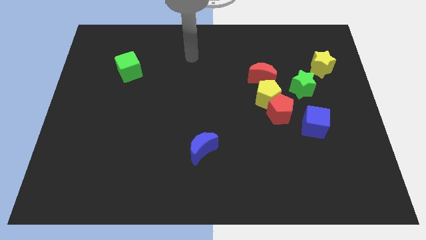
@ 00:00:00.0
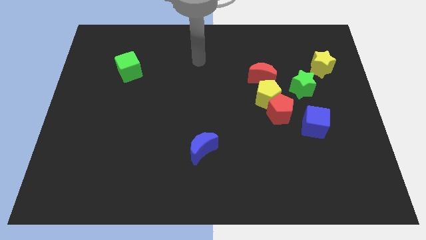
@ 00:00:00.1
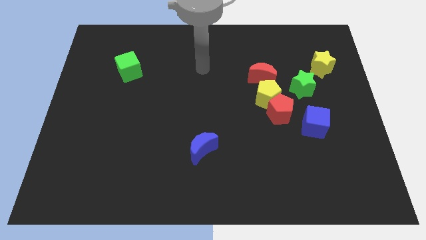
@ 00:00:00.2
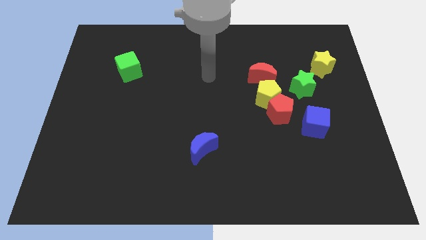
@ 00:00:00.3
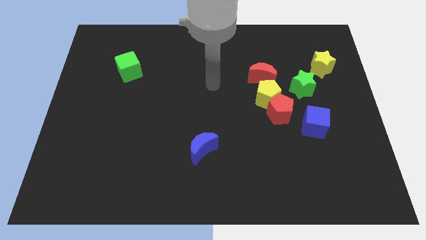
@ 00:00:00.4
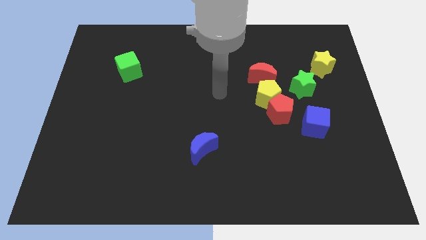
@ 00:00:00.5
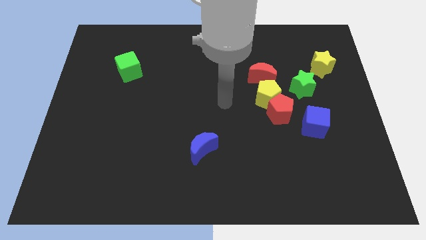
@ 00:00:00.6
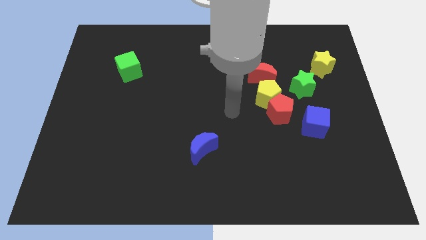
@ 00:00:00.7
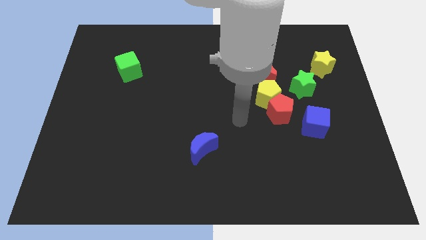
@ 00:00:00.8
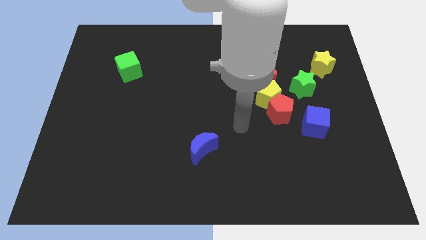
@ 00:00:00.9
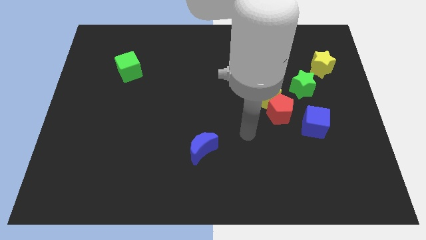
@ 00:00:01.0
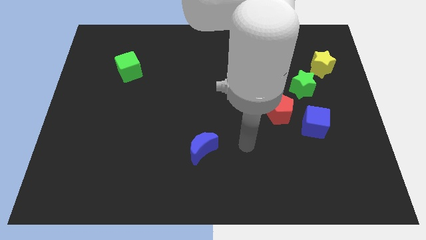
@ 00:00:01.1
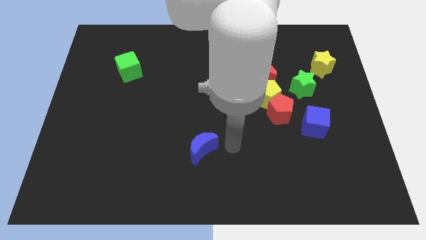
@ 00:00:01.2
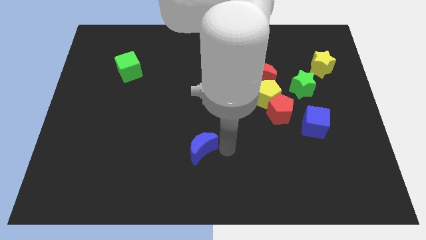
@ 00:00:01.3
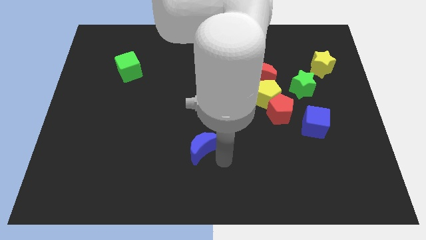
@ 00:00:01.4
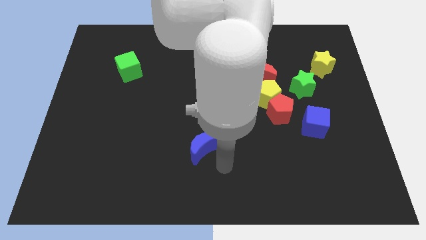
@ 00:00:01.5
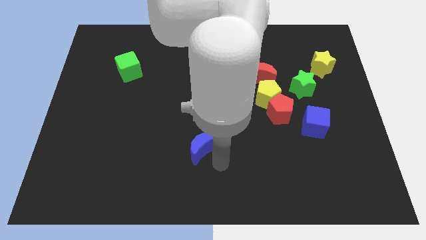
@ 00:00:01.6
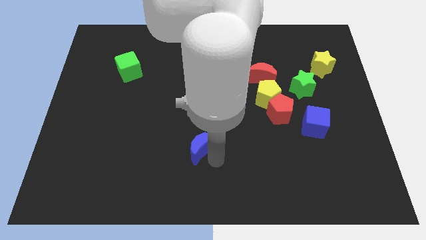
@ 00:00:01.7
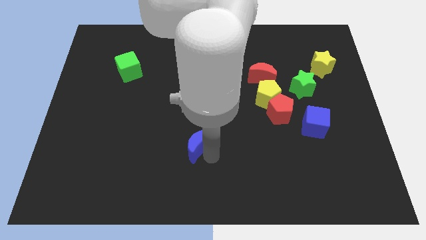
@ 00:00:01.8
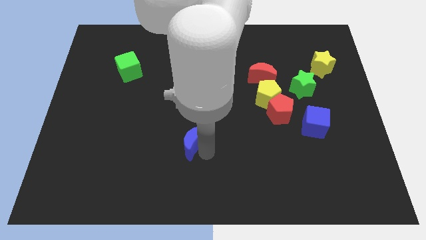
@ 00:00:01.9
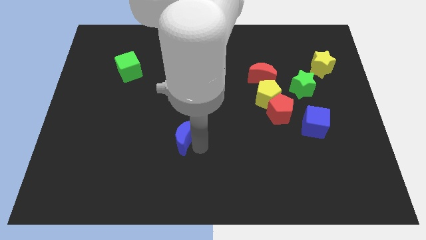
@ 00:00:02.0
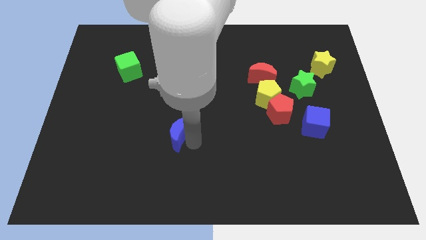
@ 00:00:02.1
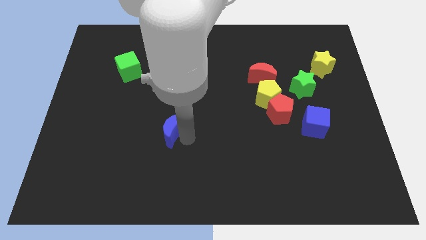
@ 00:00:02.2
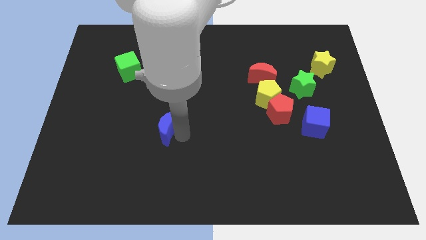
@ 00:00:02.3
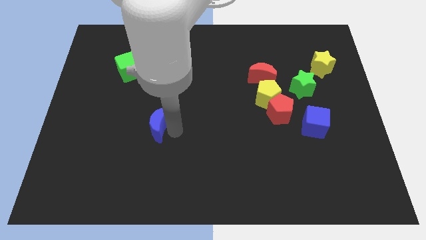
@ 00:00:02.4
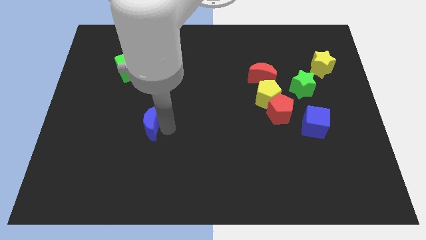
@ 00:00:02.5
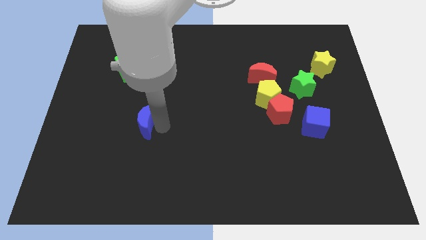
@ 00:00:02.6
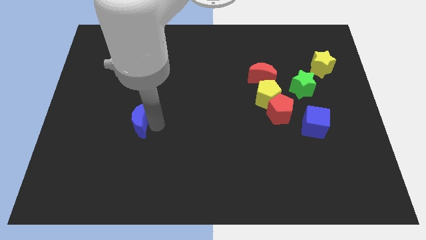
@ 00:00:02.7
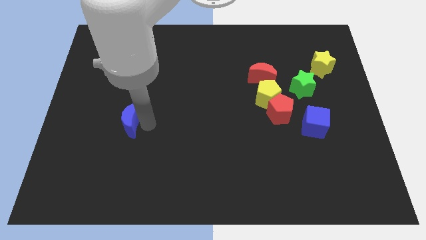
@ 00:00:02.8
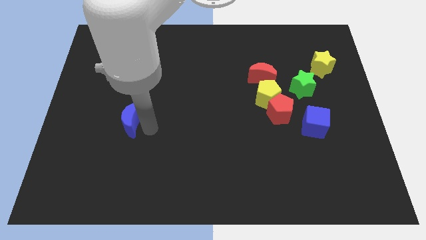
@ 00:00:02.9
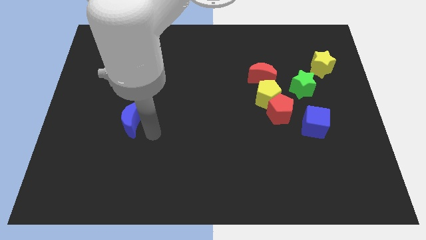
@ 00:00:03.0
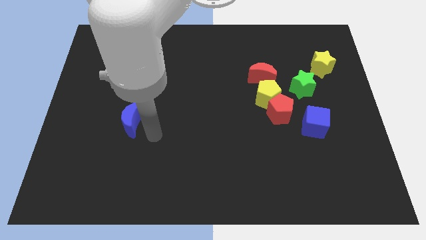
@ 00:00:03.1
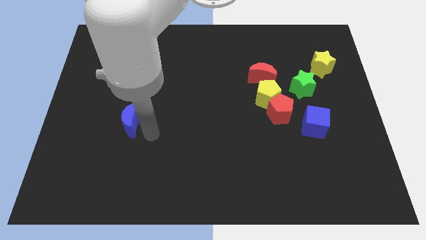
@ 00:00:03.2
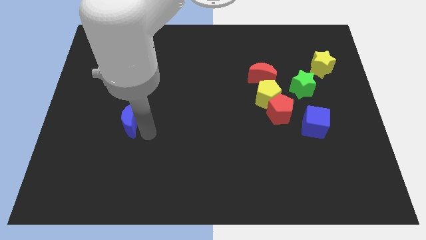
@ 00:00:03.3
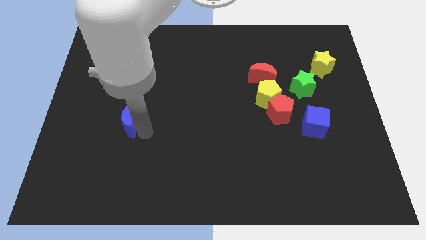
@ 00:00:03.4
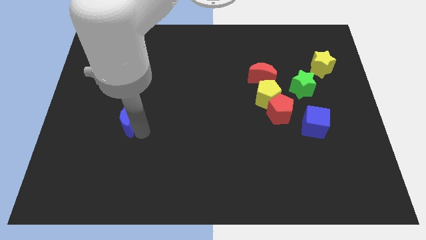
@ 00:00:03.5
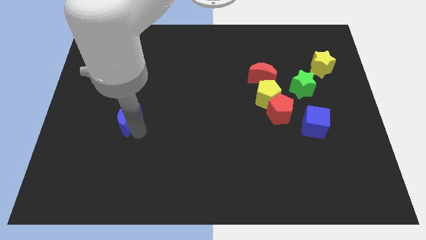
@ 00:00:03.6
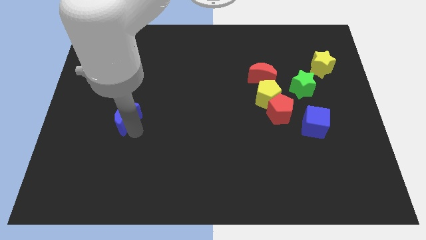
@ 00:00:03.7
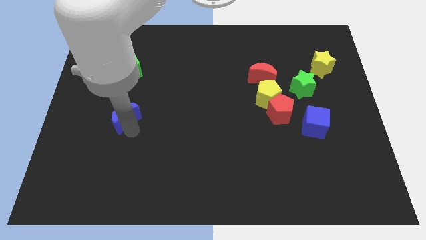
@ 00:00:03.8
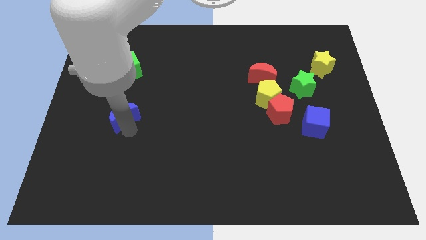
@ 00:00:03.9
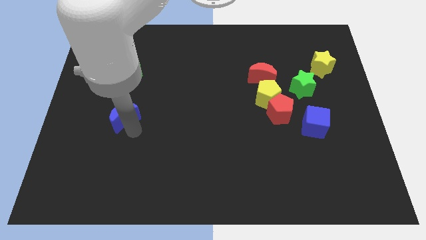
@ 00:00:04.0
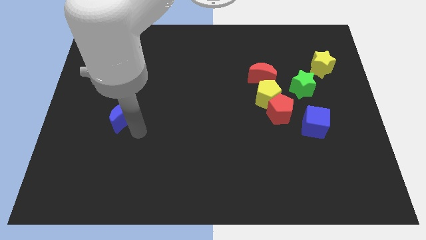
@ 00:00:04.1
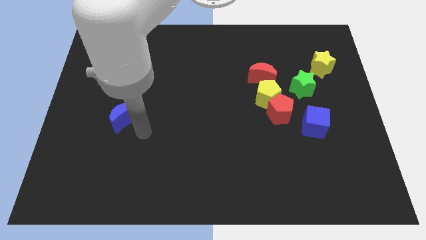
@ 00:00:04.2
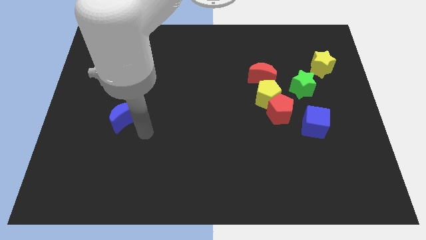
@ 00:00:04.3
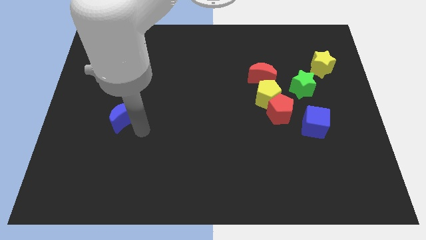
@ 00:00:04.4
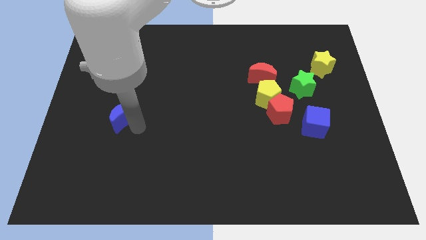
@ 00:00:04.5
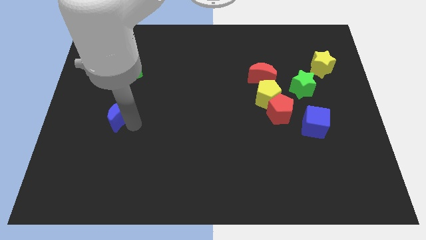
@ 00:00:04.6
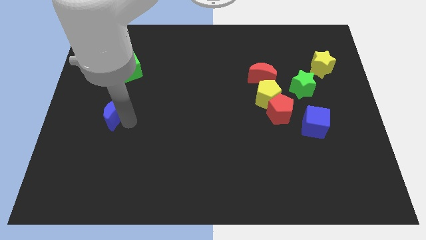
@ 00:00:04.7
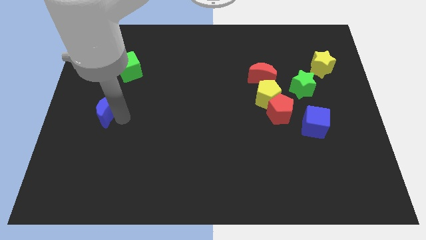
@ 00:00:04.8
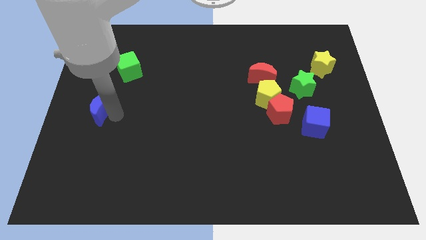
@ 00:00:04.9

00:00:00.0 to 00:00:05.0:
push the blue moon to the left side

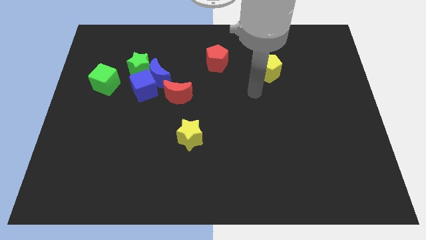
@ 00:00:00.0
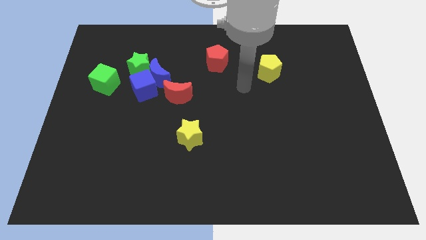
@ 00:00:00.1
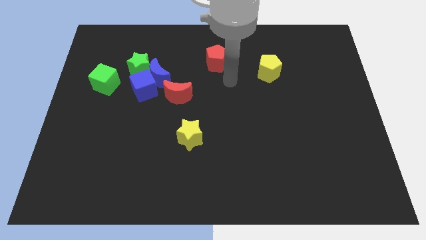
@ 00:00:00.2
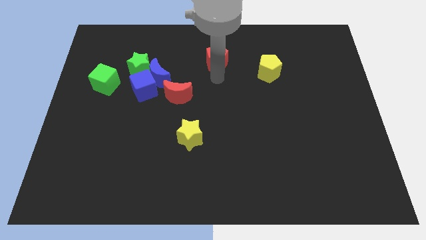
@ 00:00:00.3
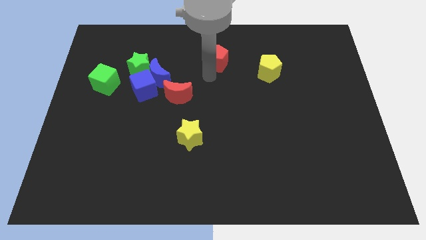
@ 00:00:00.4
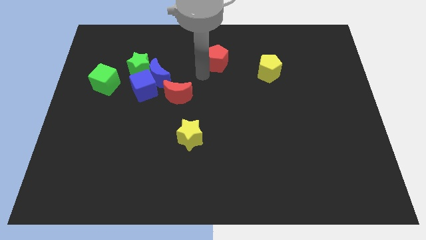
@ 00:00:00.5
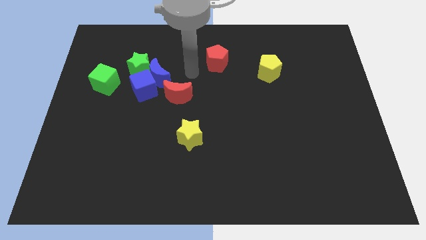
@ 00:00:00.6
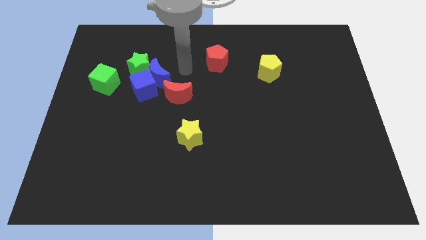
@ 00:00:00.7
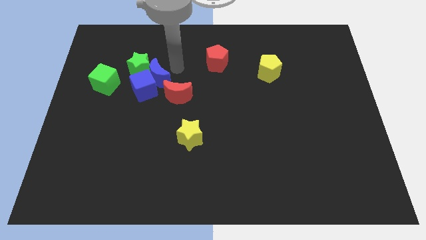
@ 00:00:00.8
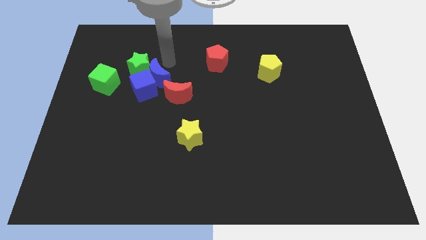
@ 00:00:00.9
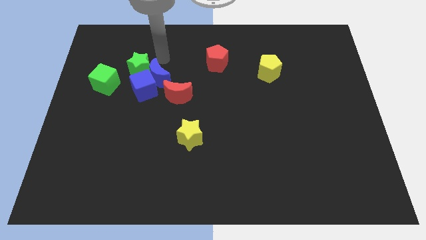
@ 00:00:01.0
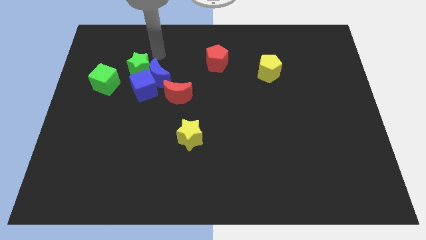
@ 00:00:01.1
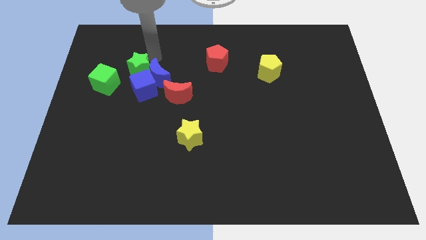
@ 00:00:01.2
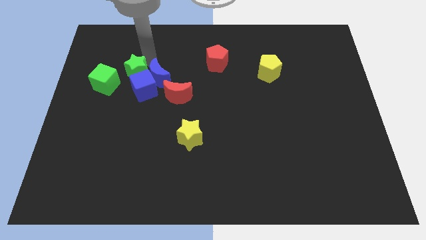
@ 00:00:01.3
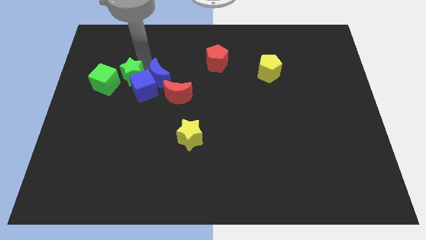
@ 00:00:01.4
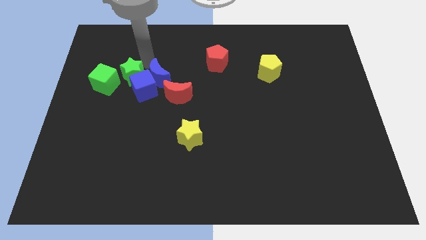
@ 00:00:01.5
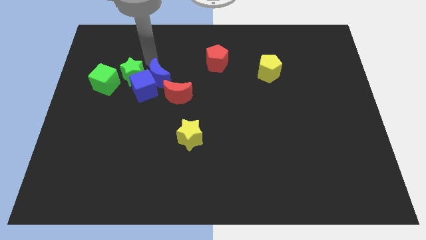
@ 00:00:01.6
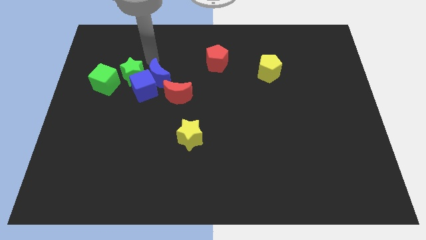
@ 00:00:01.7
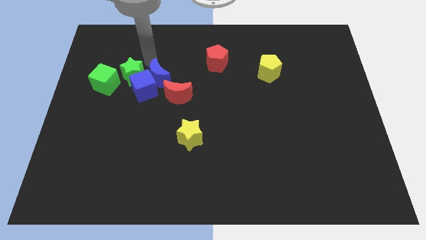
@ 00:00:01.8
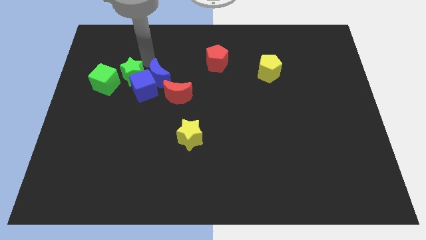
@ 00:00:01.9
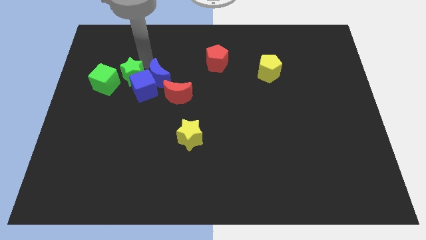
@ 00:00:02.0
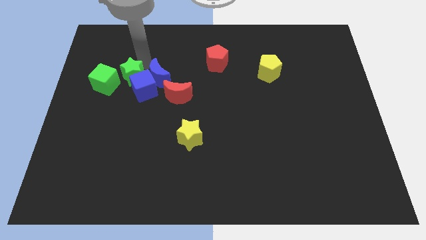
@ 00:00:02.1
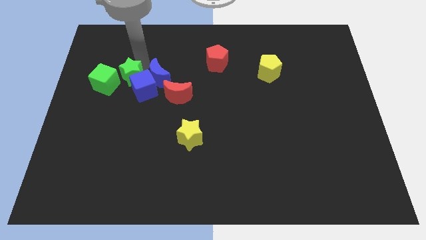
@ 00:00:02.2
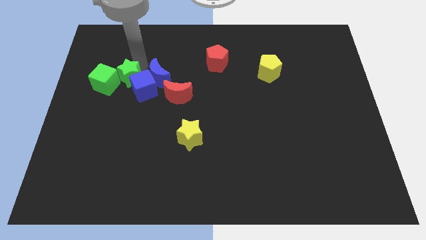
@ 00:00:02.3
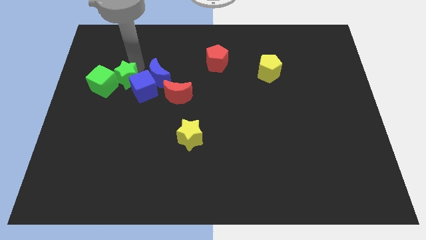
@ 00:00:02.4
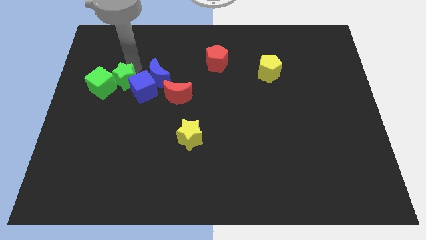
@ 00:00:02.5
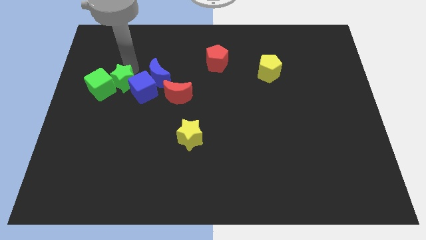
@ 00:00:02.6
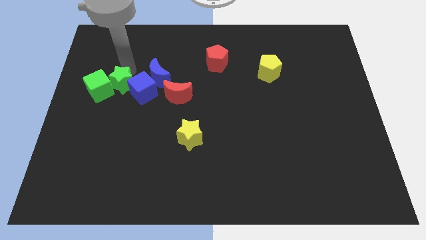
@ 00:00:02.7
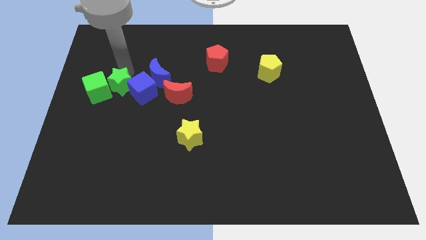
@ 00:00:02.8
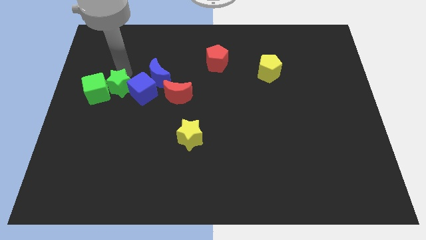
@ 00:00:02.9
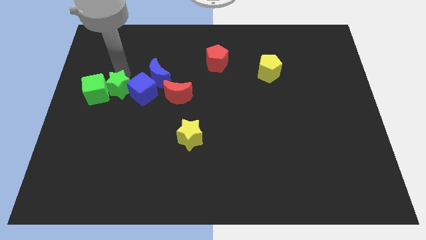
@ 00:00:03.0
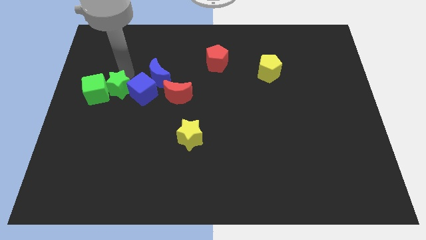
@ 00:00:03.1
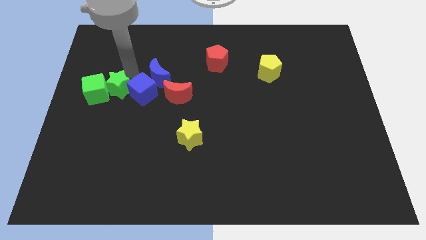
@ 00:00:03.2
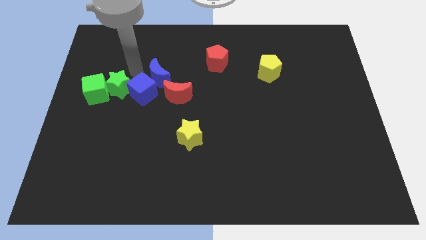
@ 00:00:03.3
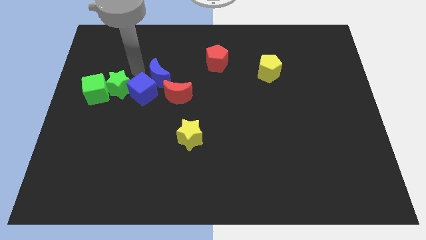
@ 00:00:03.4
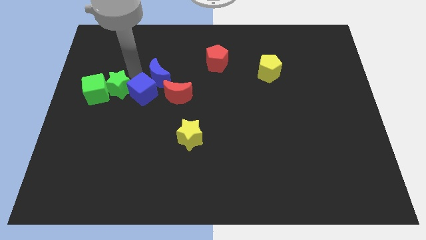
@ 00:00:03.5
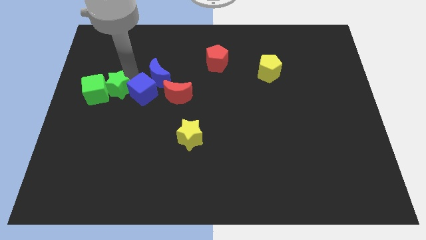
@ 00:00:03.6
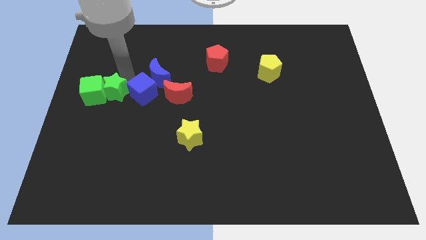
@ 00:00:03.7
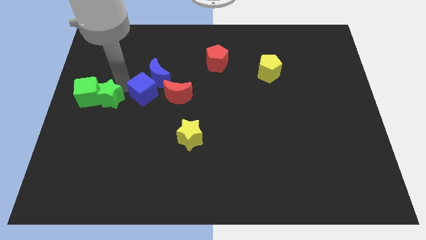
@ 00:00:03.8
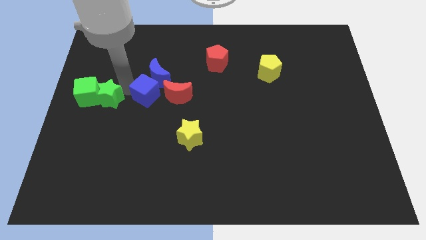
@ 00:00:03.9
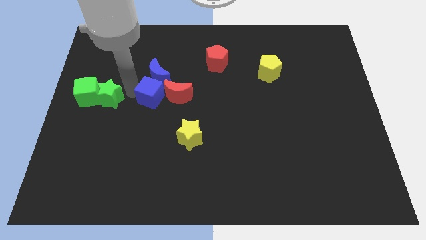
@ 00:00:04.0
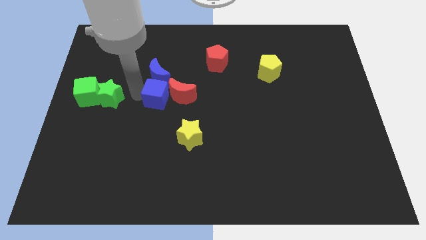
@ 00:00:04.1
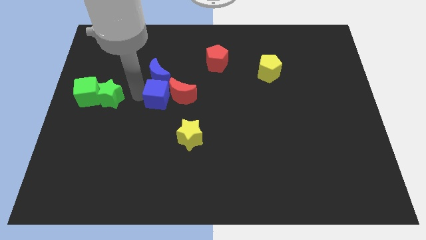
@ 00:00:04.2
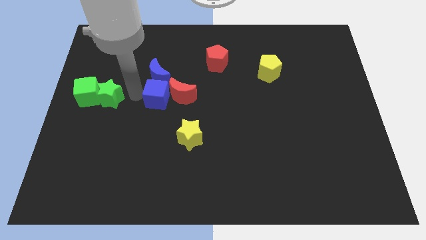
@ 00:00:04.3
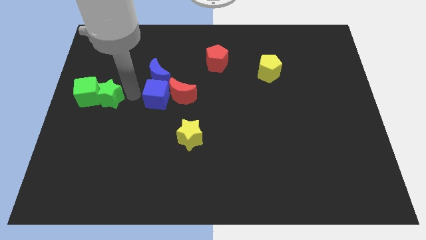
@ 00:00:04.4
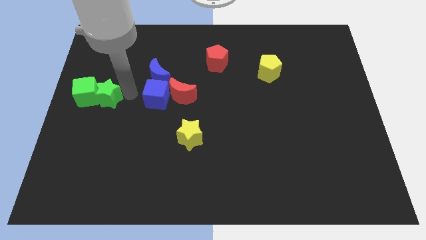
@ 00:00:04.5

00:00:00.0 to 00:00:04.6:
put the green star to the center left
